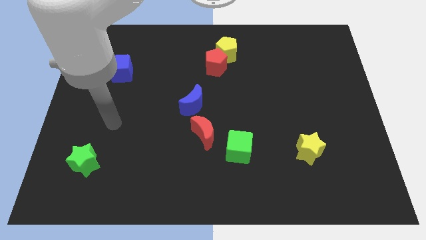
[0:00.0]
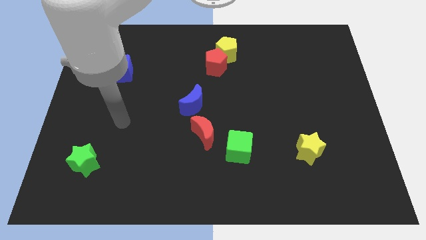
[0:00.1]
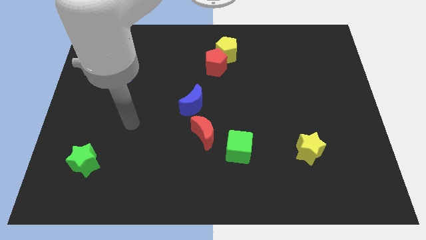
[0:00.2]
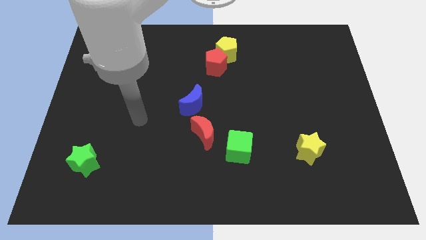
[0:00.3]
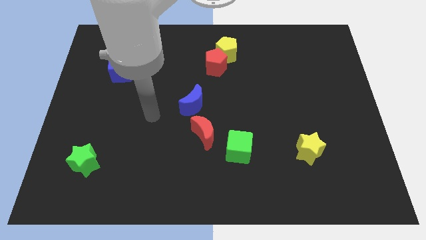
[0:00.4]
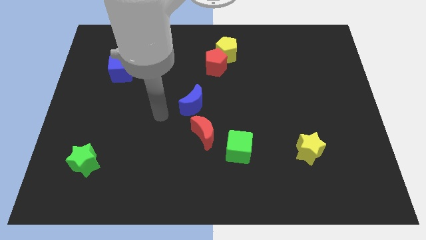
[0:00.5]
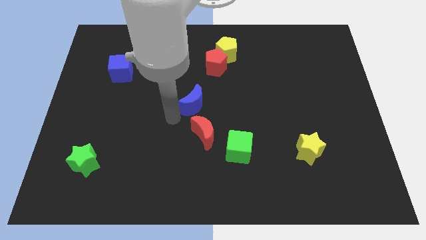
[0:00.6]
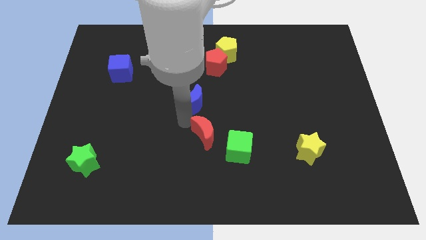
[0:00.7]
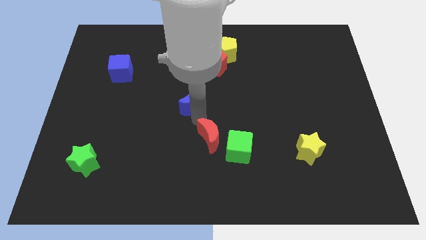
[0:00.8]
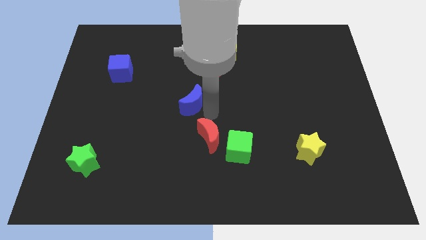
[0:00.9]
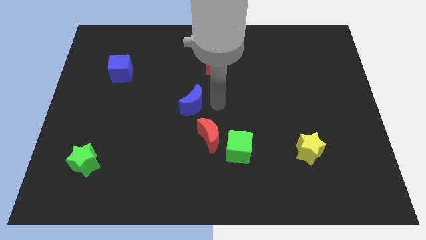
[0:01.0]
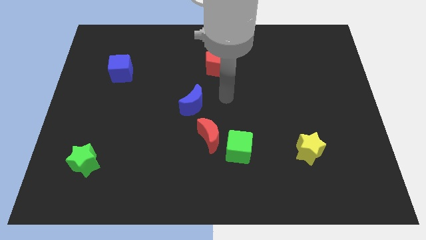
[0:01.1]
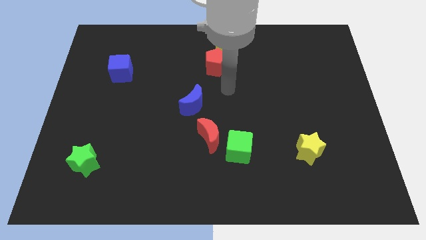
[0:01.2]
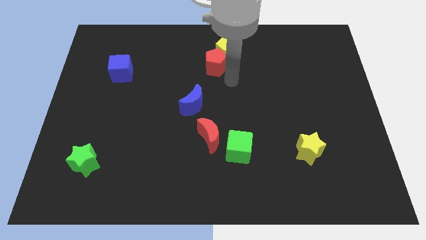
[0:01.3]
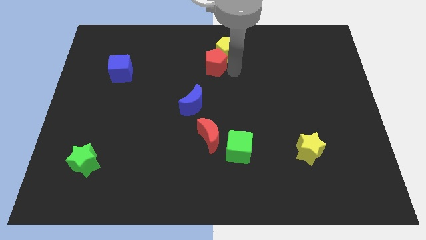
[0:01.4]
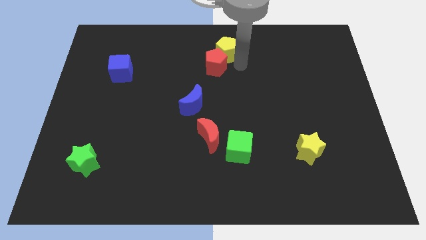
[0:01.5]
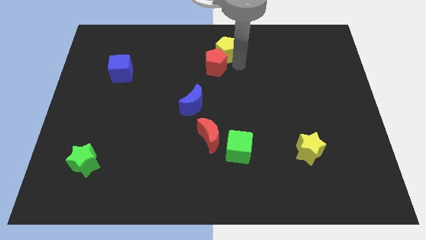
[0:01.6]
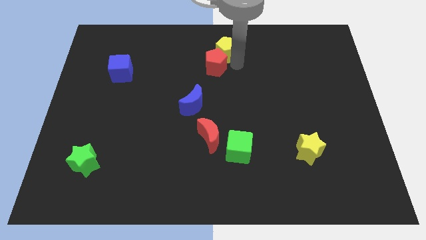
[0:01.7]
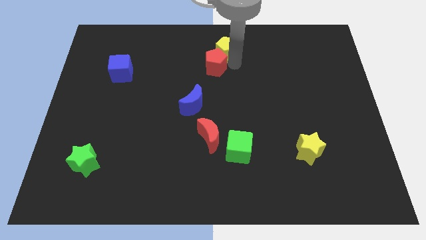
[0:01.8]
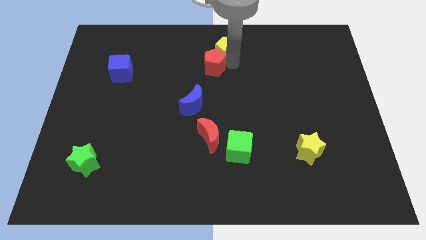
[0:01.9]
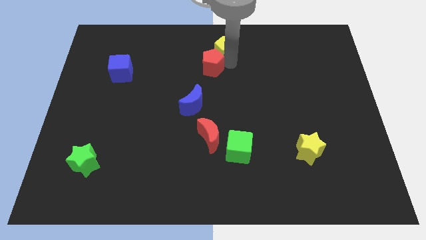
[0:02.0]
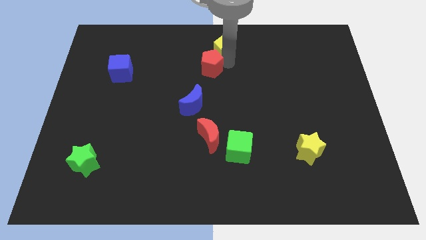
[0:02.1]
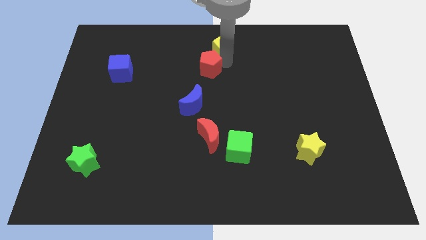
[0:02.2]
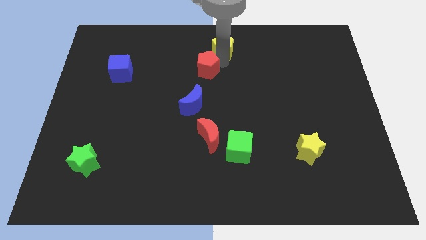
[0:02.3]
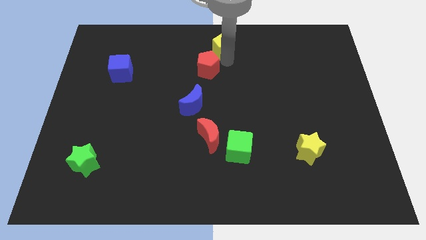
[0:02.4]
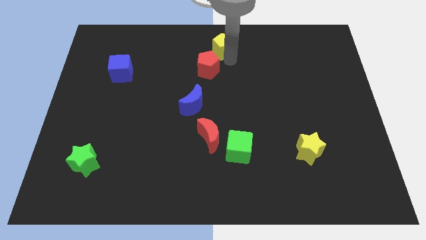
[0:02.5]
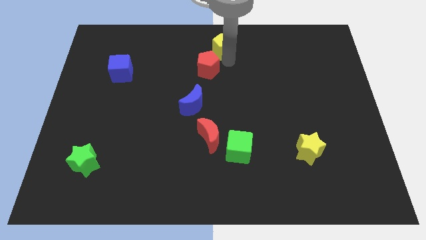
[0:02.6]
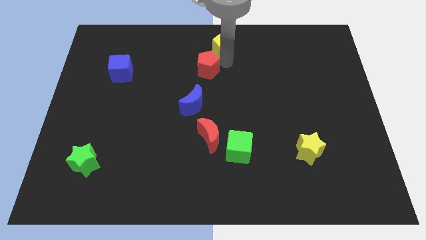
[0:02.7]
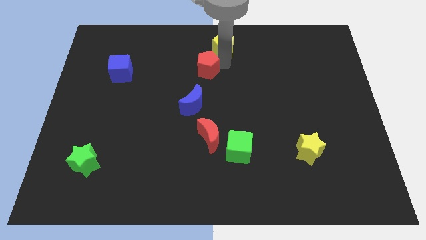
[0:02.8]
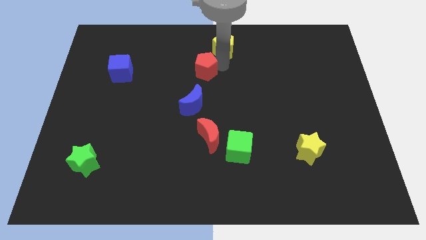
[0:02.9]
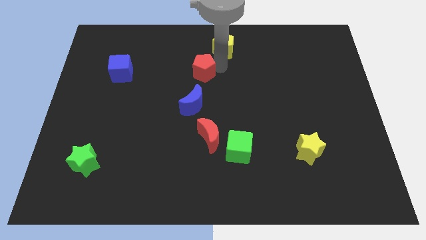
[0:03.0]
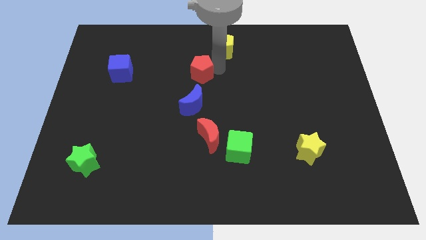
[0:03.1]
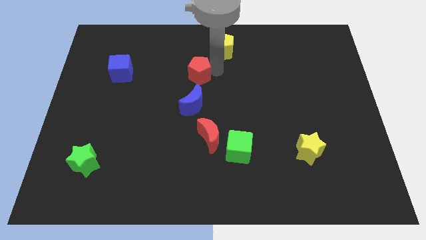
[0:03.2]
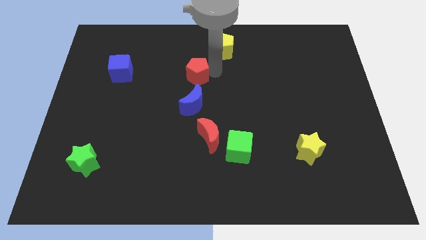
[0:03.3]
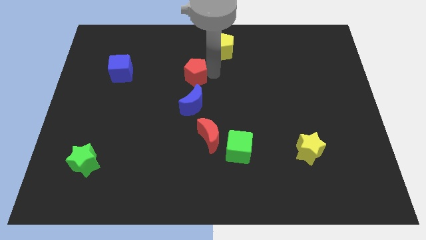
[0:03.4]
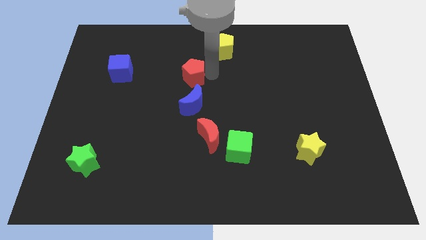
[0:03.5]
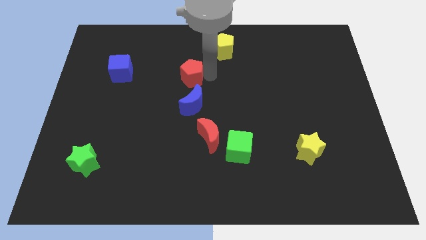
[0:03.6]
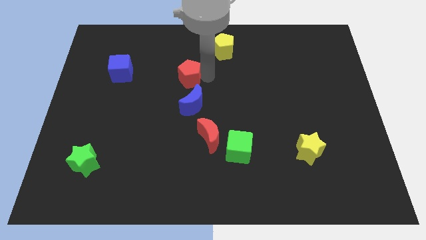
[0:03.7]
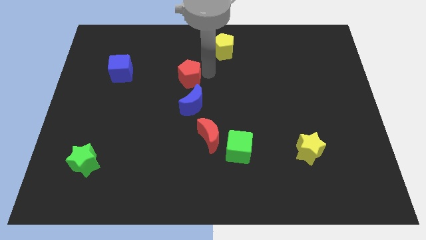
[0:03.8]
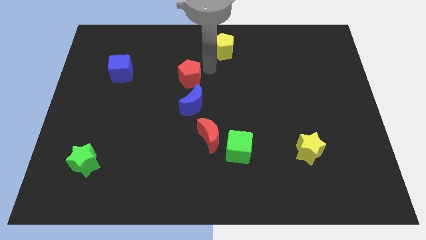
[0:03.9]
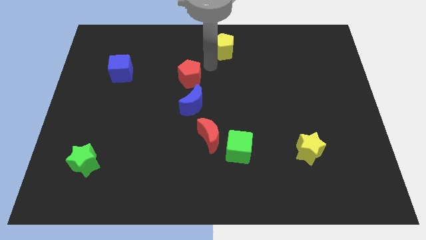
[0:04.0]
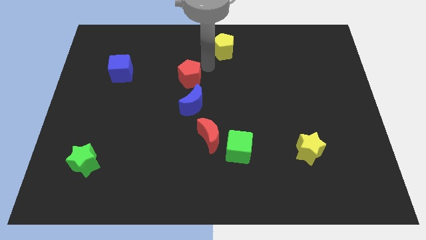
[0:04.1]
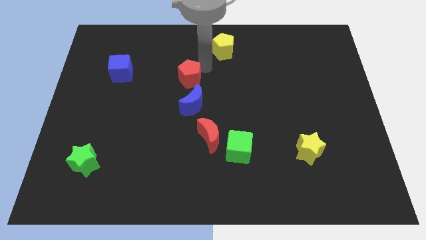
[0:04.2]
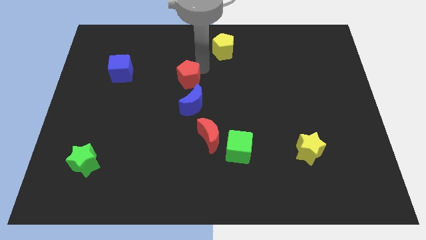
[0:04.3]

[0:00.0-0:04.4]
move the red pentagon diagonally up and to the left of the blue moon

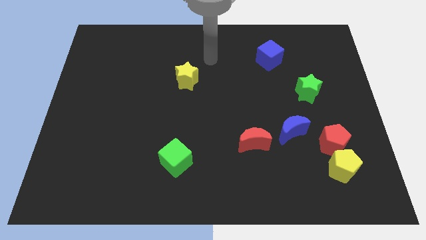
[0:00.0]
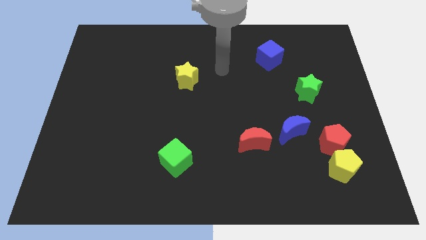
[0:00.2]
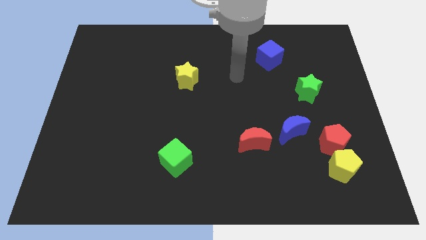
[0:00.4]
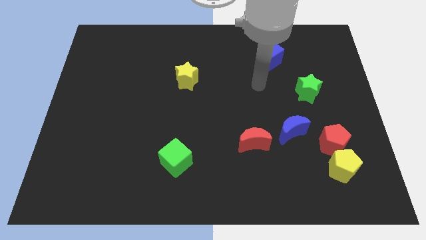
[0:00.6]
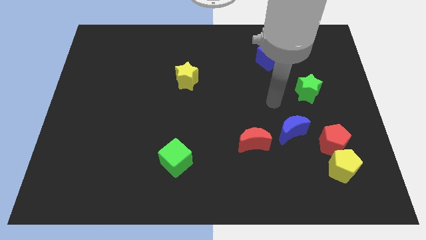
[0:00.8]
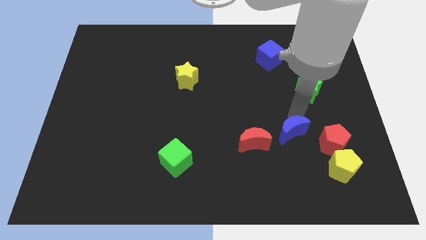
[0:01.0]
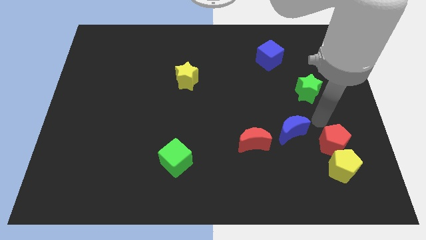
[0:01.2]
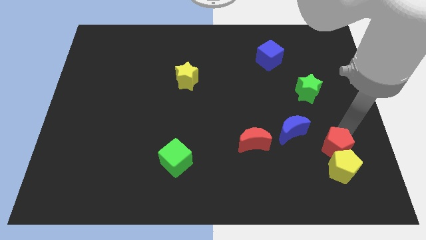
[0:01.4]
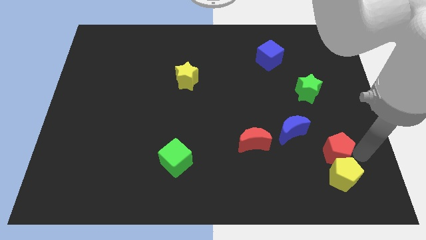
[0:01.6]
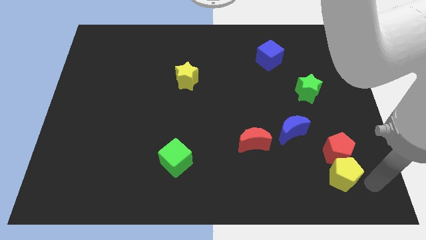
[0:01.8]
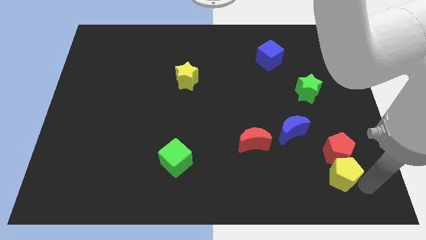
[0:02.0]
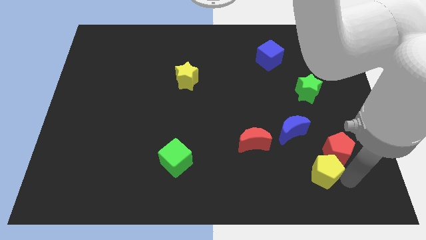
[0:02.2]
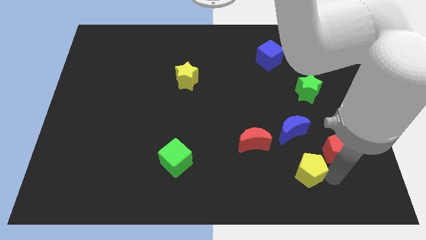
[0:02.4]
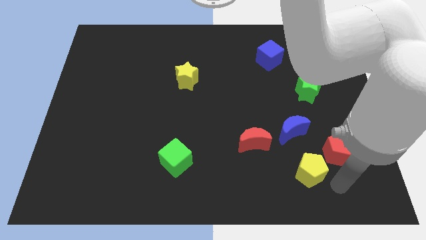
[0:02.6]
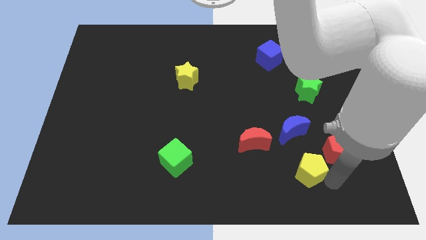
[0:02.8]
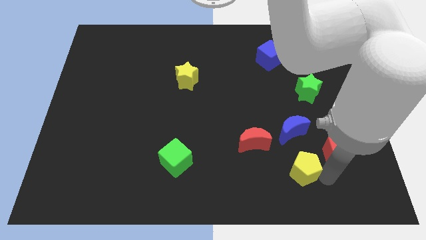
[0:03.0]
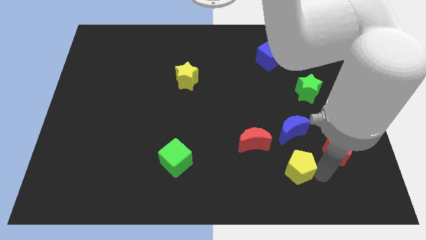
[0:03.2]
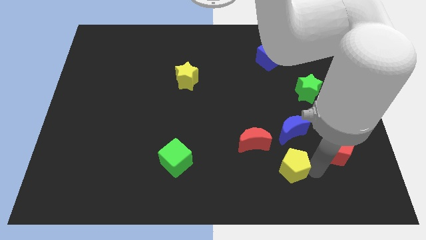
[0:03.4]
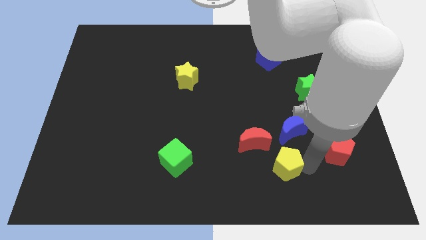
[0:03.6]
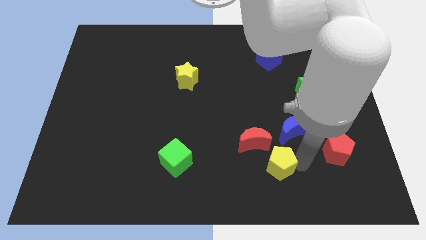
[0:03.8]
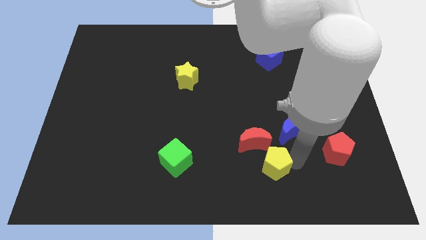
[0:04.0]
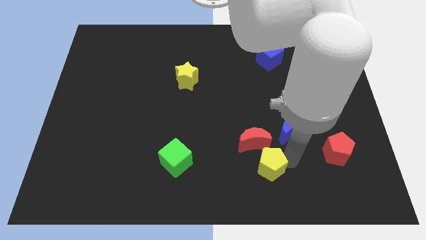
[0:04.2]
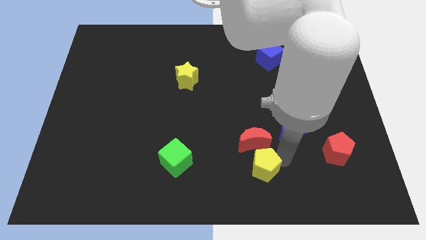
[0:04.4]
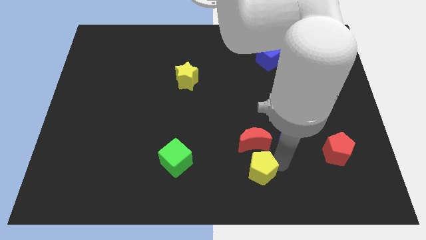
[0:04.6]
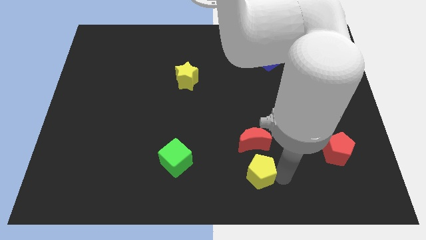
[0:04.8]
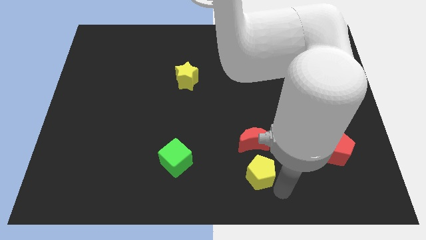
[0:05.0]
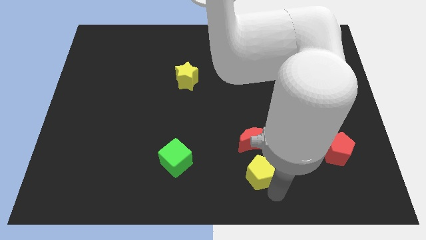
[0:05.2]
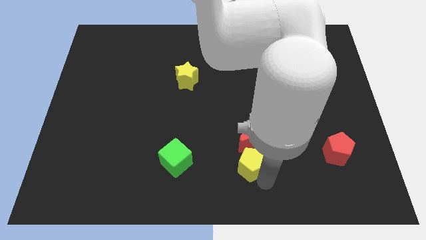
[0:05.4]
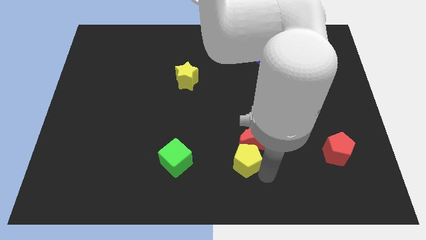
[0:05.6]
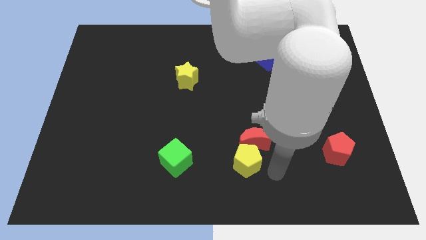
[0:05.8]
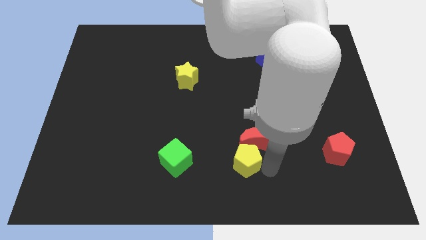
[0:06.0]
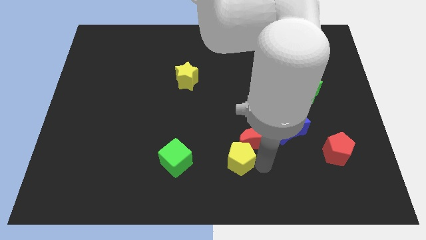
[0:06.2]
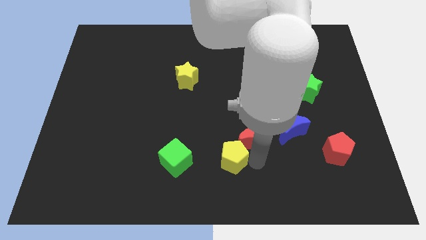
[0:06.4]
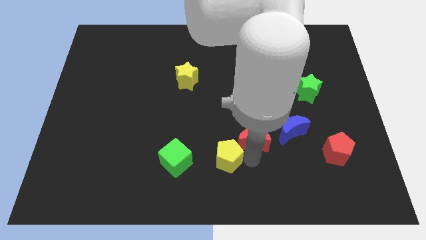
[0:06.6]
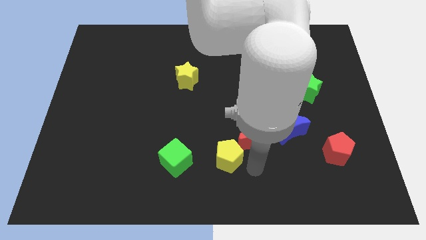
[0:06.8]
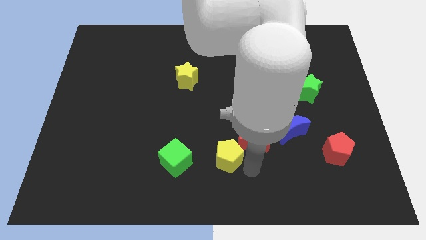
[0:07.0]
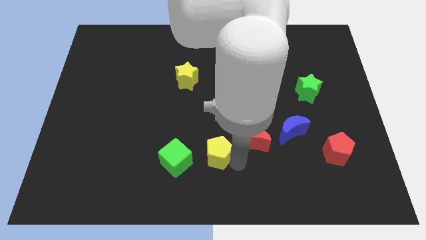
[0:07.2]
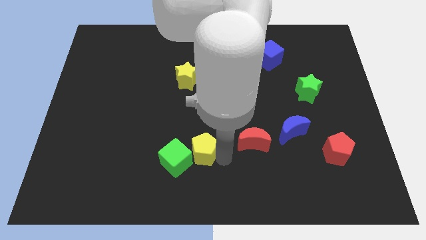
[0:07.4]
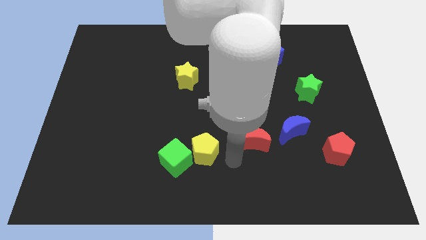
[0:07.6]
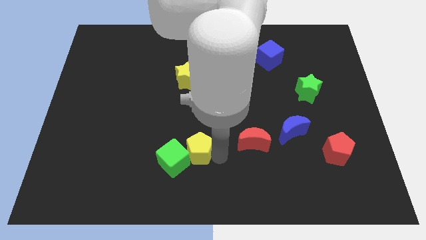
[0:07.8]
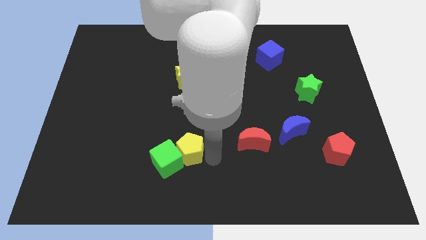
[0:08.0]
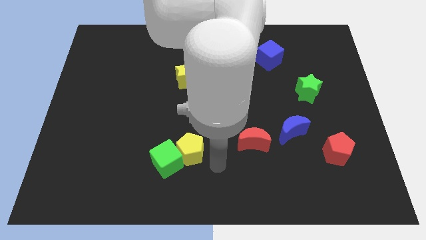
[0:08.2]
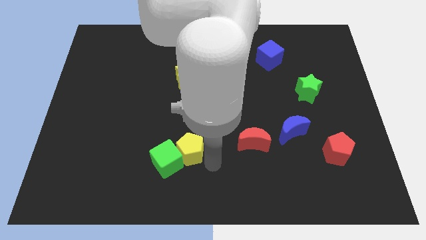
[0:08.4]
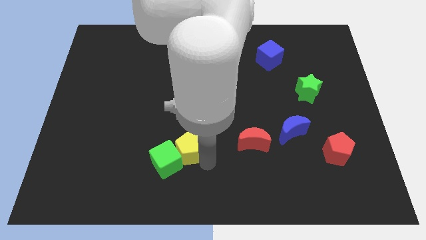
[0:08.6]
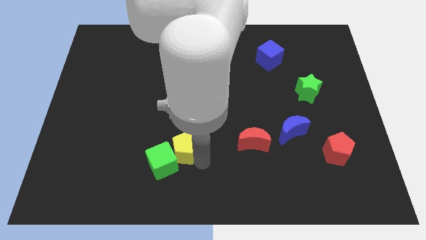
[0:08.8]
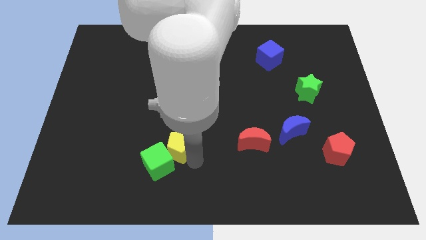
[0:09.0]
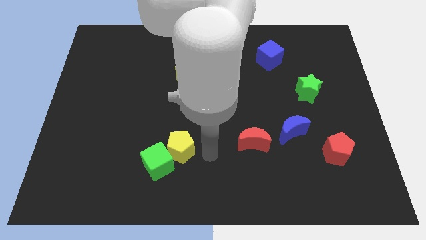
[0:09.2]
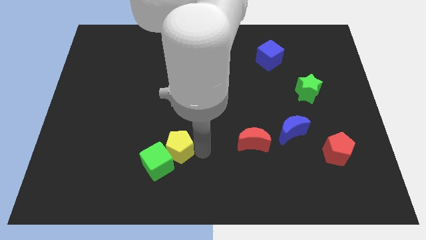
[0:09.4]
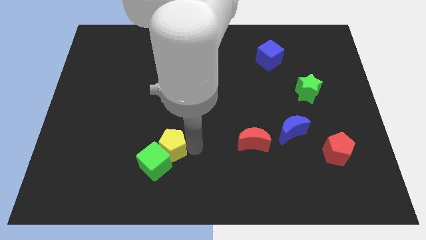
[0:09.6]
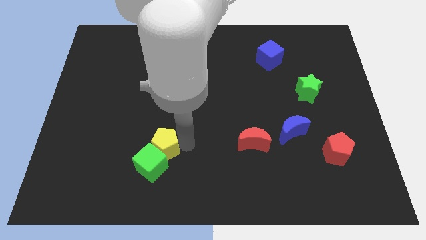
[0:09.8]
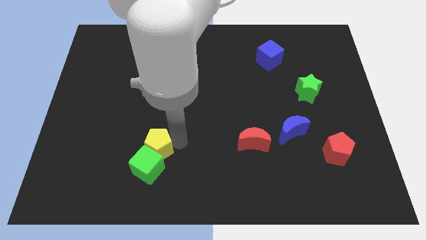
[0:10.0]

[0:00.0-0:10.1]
move the yellow pentagon diagonally up and to the left of the green cube
